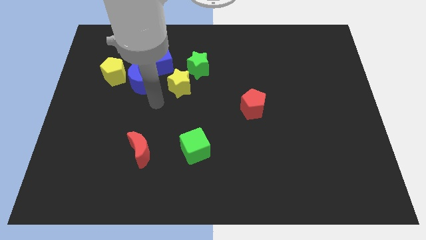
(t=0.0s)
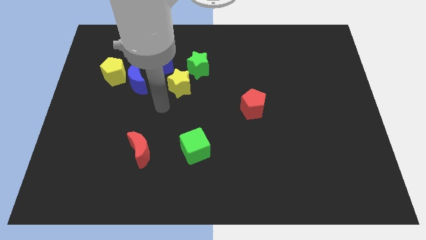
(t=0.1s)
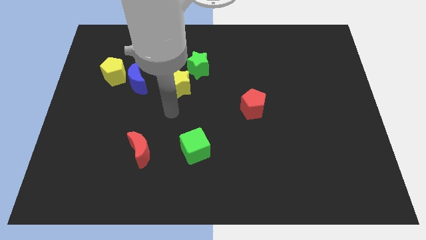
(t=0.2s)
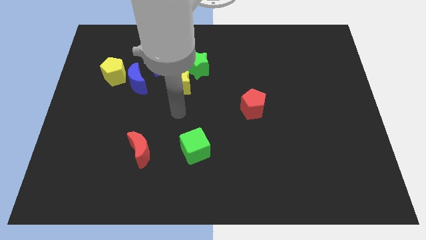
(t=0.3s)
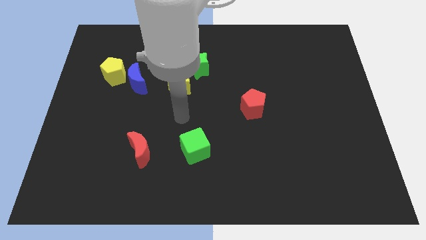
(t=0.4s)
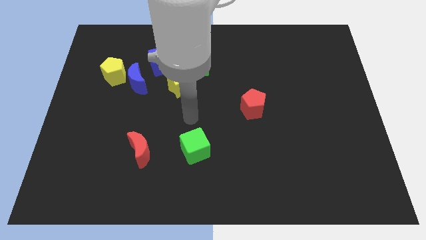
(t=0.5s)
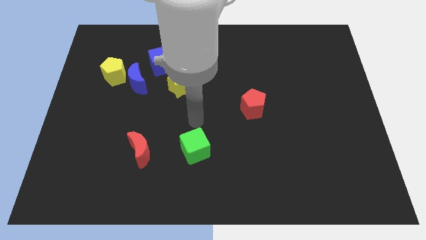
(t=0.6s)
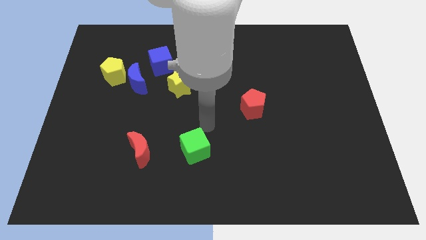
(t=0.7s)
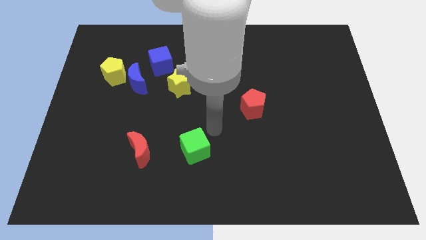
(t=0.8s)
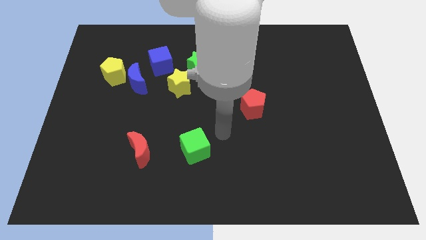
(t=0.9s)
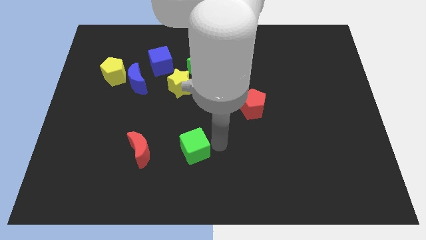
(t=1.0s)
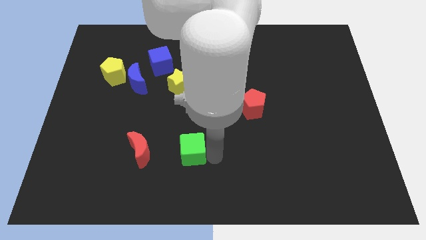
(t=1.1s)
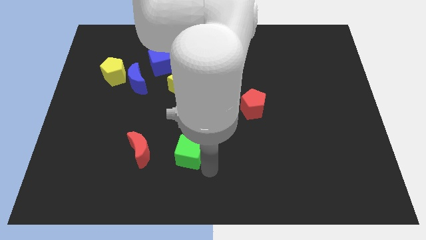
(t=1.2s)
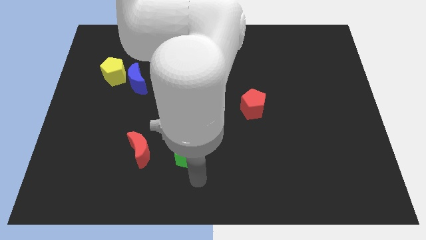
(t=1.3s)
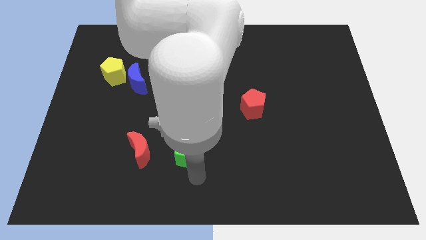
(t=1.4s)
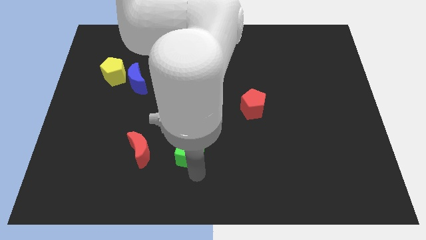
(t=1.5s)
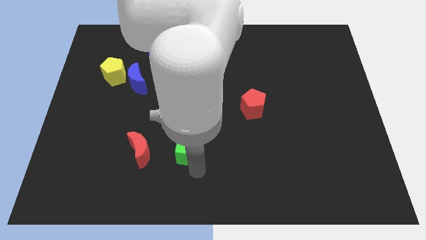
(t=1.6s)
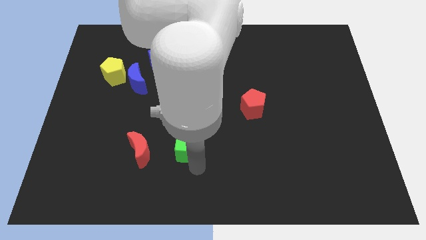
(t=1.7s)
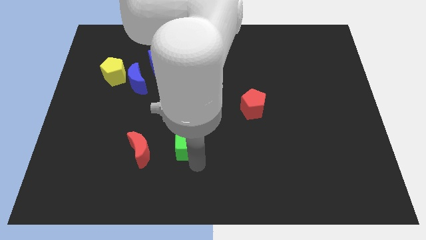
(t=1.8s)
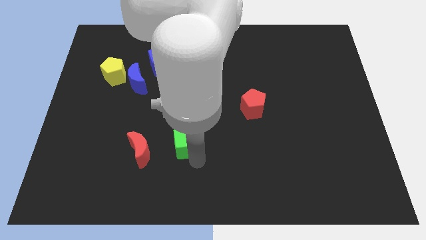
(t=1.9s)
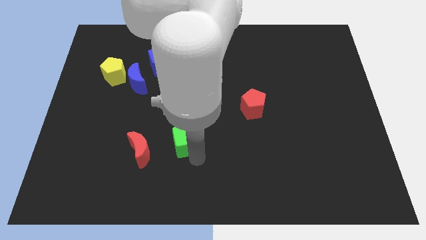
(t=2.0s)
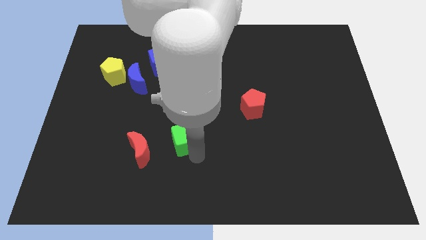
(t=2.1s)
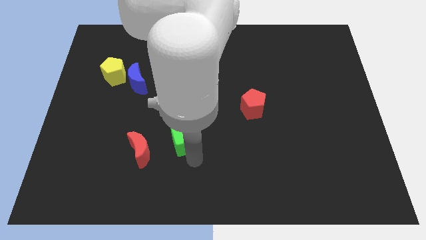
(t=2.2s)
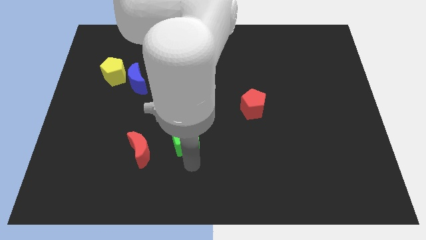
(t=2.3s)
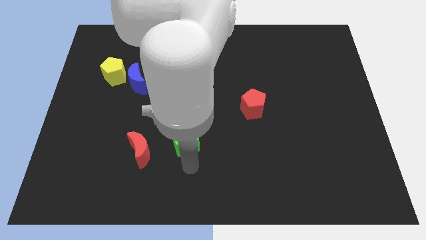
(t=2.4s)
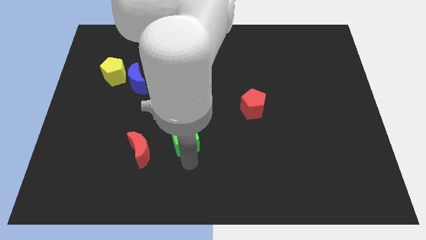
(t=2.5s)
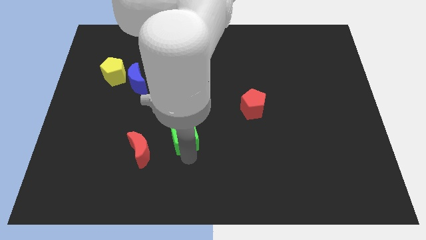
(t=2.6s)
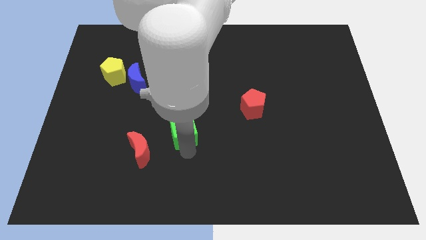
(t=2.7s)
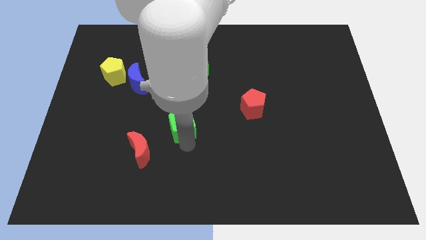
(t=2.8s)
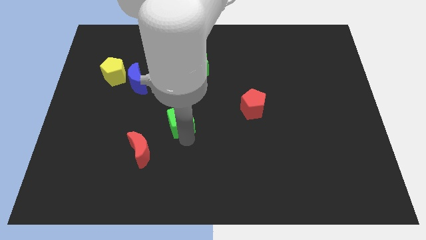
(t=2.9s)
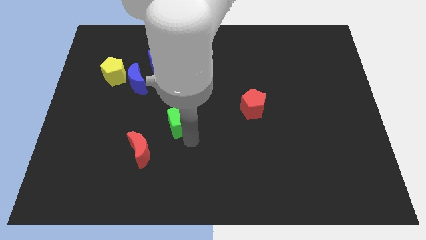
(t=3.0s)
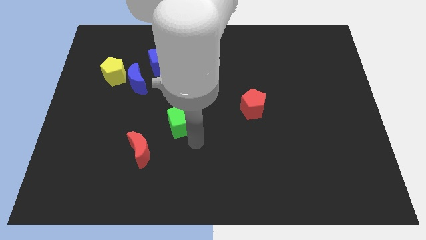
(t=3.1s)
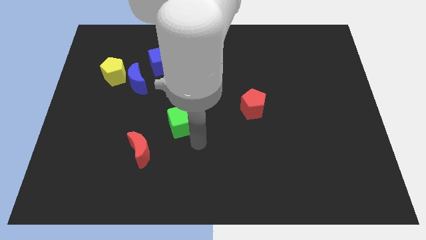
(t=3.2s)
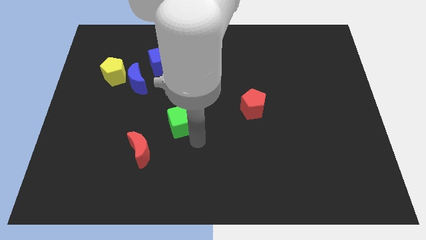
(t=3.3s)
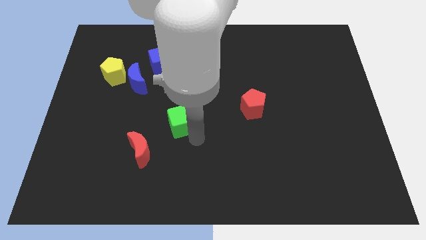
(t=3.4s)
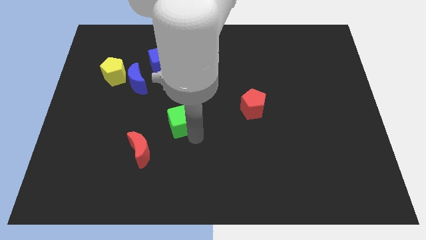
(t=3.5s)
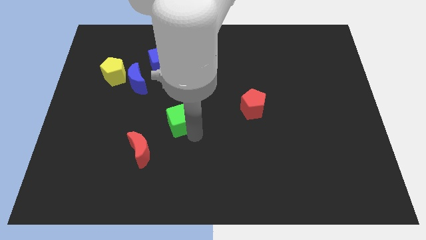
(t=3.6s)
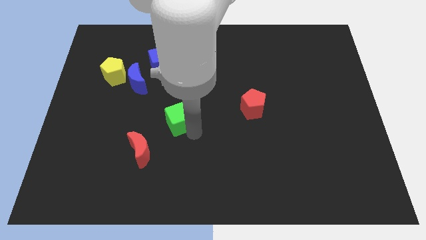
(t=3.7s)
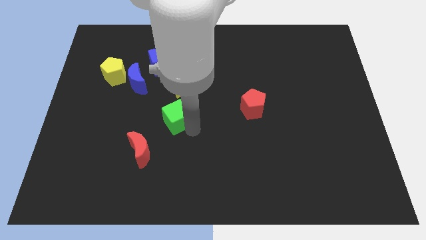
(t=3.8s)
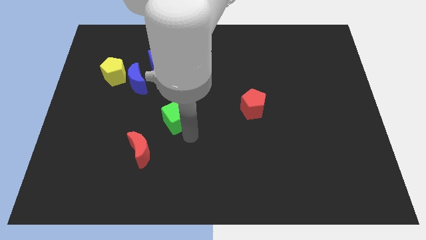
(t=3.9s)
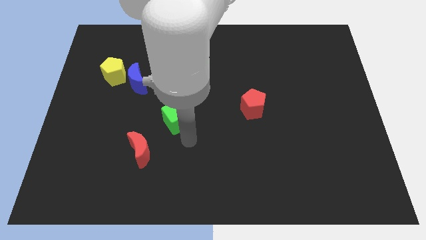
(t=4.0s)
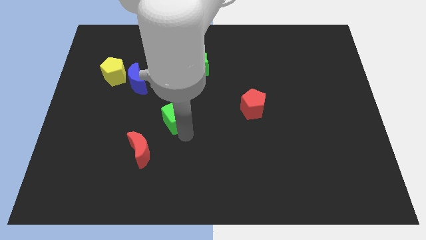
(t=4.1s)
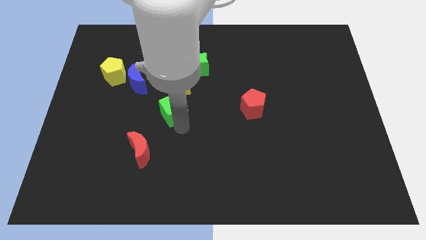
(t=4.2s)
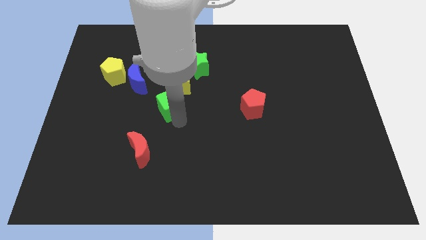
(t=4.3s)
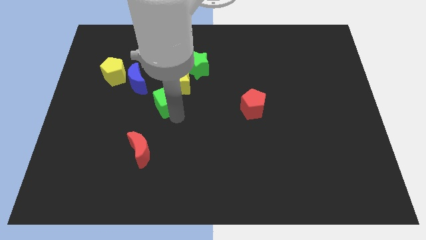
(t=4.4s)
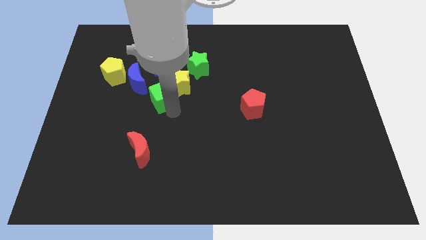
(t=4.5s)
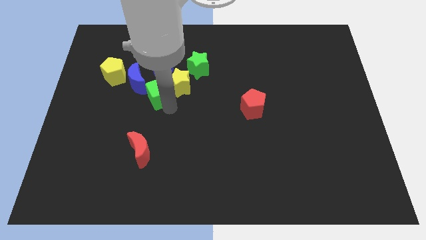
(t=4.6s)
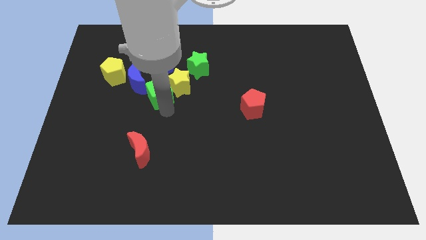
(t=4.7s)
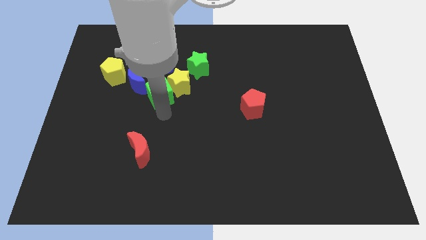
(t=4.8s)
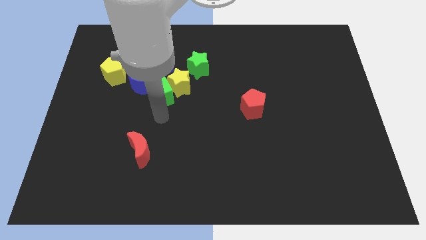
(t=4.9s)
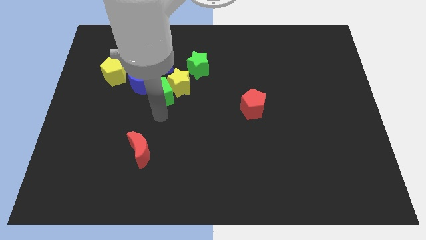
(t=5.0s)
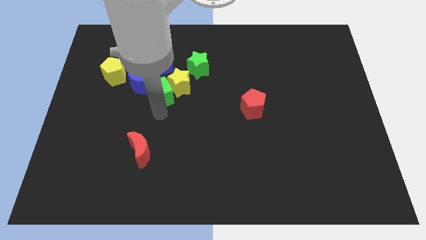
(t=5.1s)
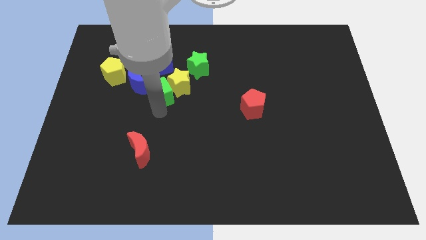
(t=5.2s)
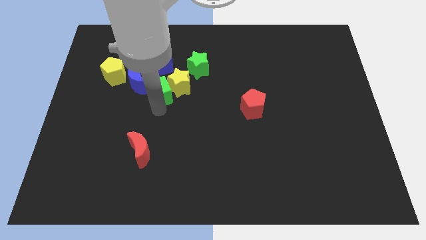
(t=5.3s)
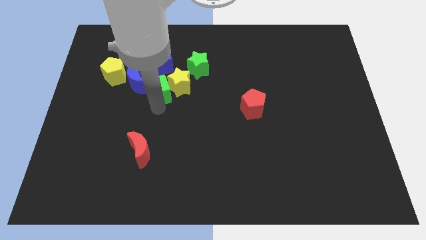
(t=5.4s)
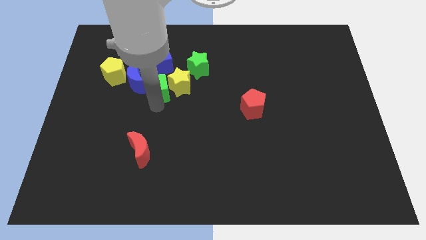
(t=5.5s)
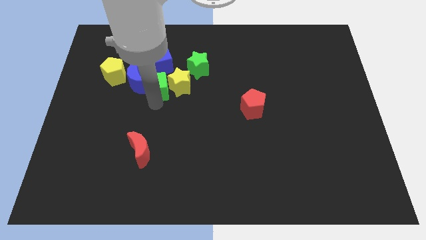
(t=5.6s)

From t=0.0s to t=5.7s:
slide the green cube to the right of the yellow pentagon

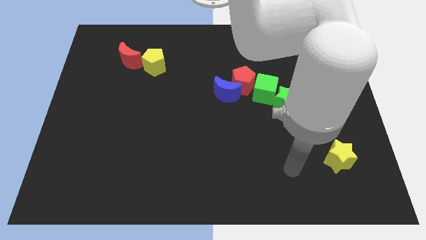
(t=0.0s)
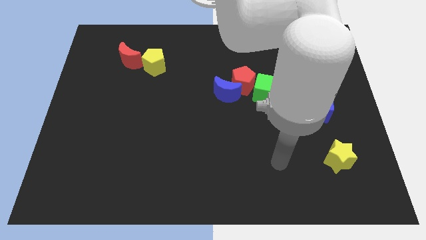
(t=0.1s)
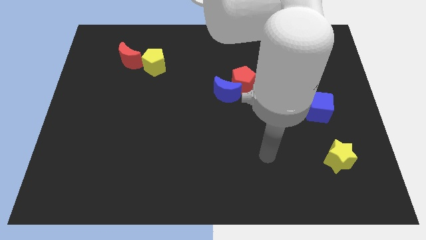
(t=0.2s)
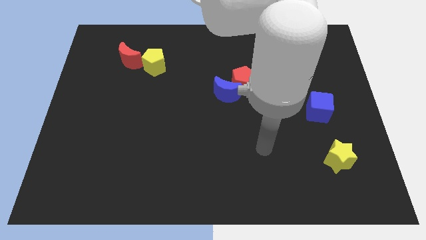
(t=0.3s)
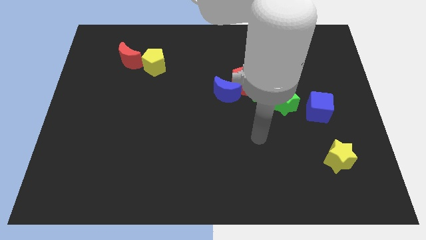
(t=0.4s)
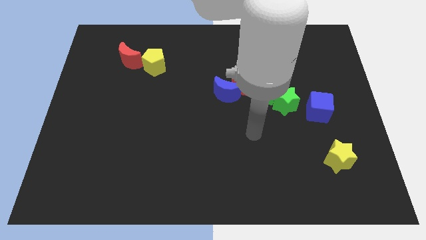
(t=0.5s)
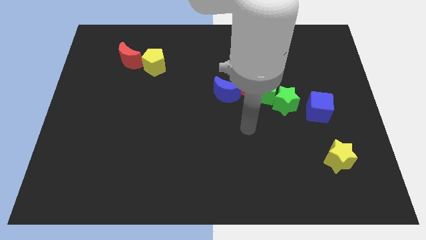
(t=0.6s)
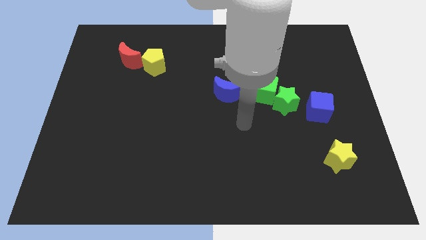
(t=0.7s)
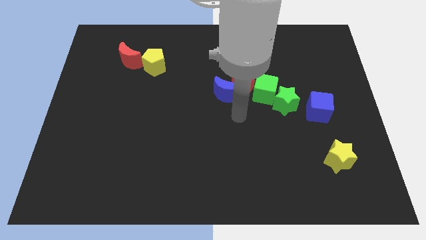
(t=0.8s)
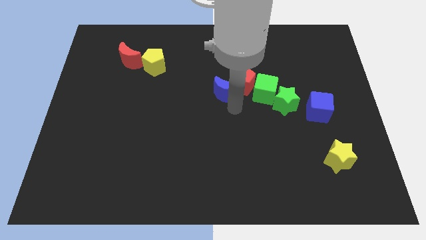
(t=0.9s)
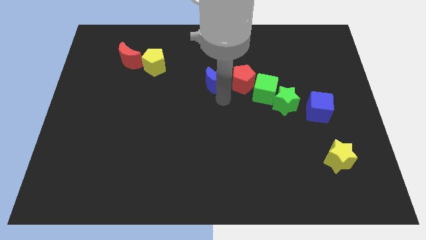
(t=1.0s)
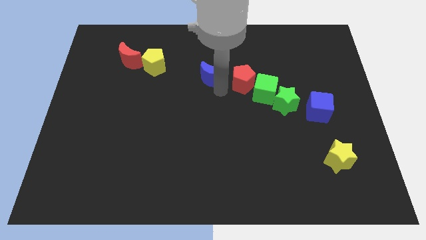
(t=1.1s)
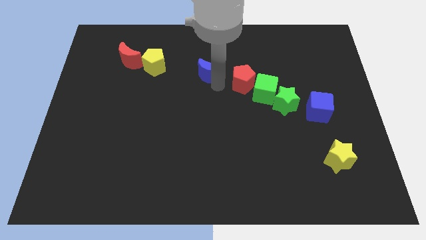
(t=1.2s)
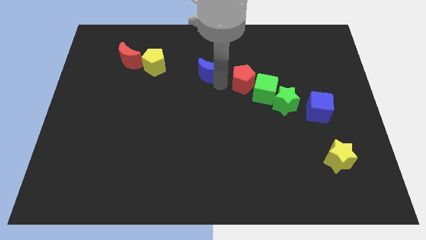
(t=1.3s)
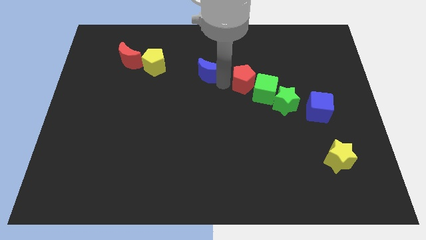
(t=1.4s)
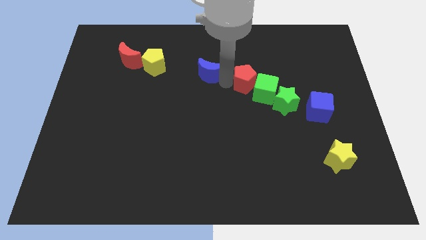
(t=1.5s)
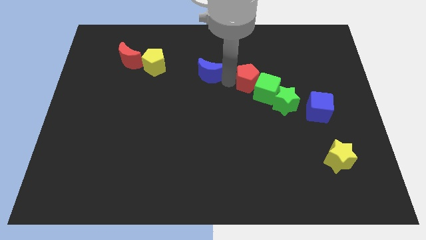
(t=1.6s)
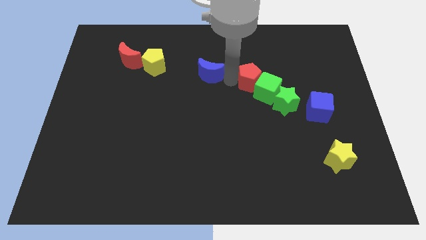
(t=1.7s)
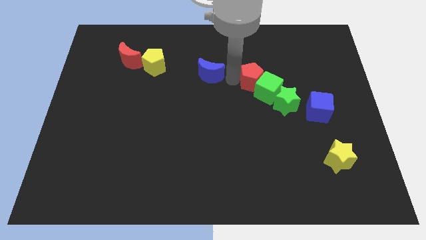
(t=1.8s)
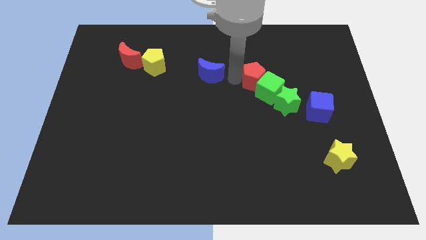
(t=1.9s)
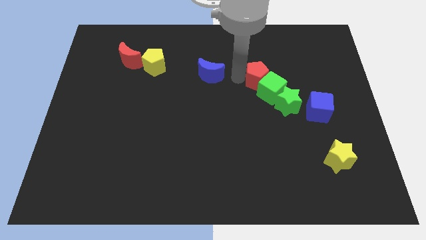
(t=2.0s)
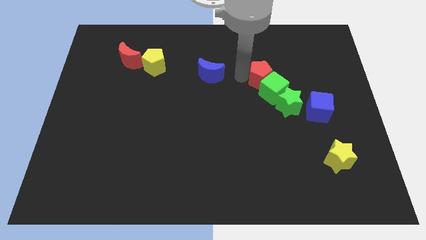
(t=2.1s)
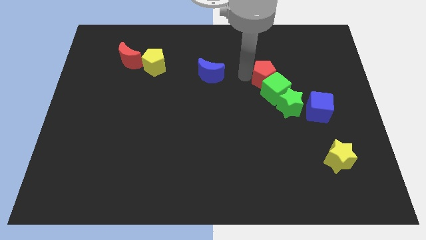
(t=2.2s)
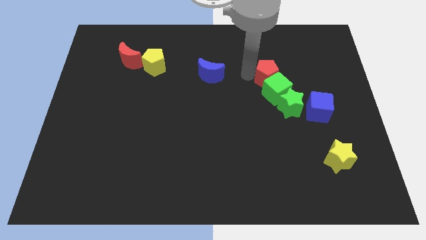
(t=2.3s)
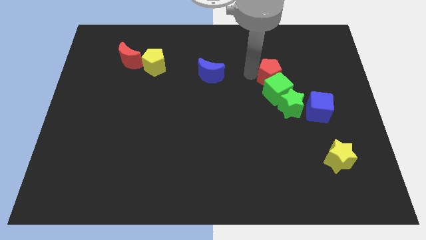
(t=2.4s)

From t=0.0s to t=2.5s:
put the red pentagon to the top right of the green cube
